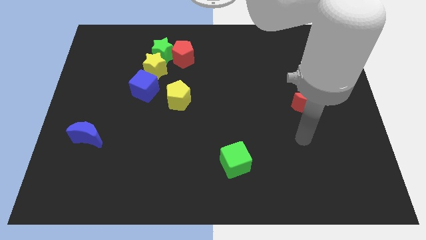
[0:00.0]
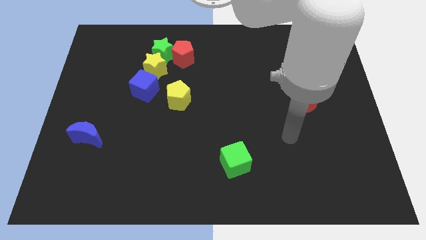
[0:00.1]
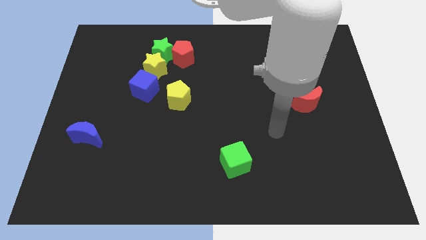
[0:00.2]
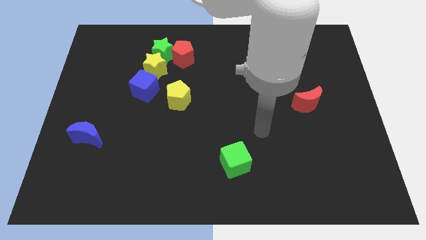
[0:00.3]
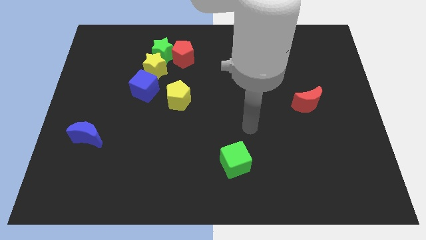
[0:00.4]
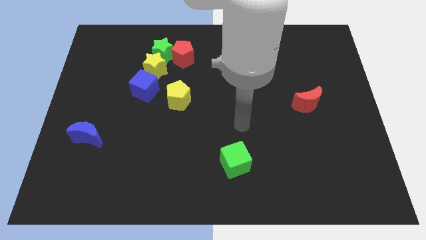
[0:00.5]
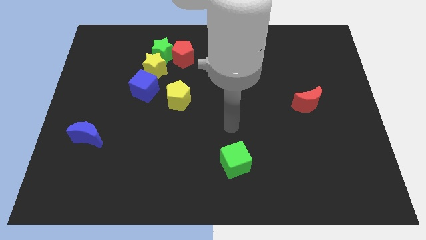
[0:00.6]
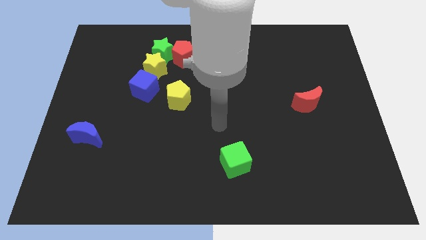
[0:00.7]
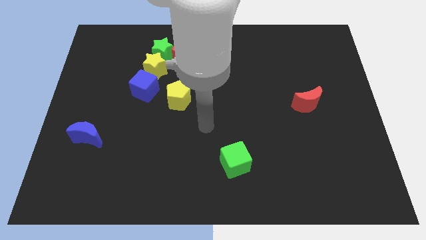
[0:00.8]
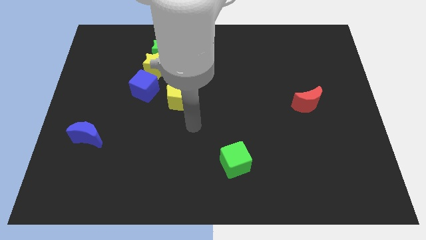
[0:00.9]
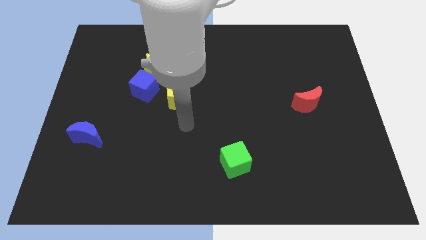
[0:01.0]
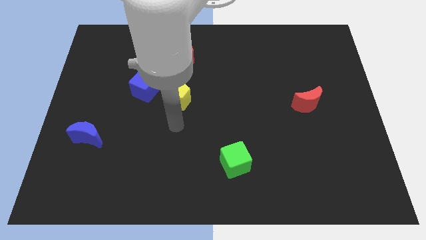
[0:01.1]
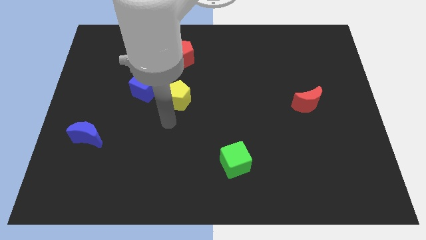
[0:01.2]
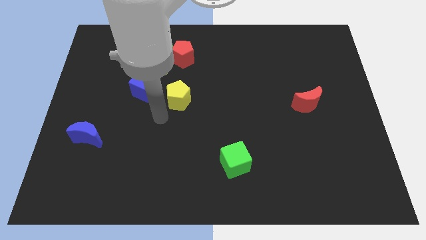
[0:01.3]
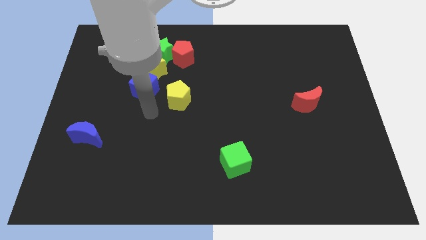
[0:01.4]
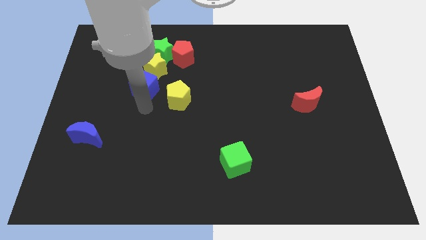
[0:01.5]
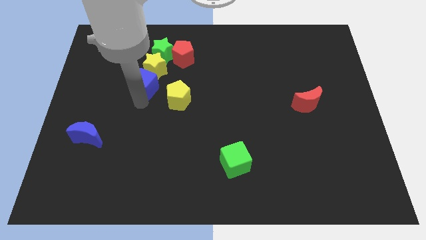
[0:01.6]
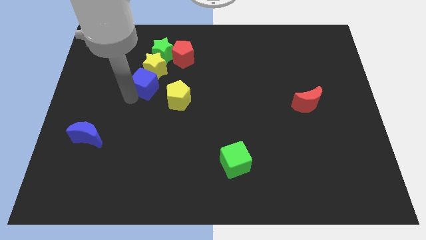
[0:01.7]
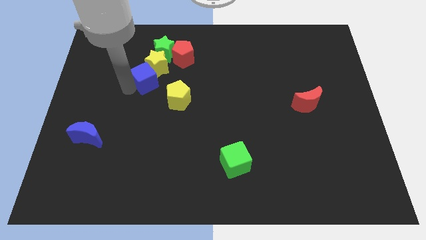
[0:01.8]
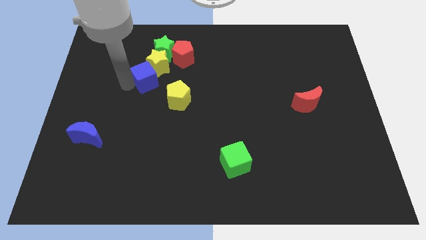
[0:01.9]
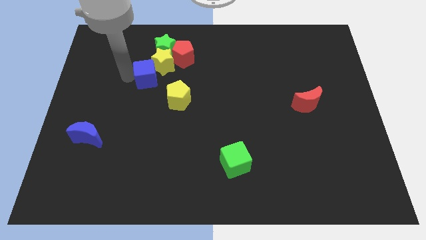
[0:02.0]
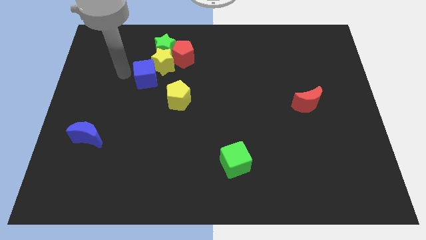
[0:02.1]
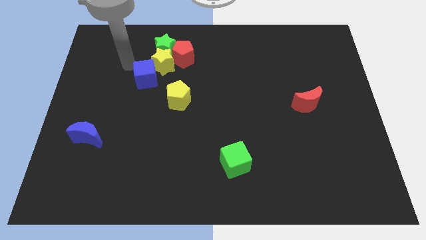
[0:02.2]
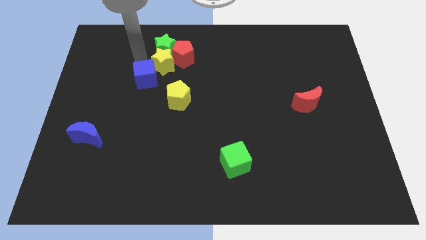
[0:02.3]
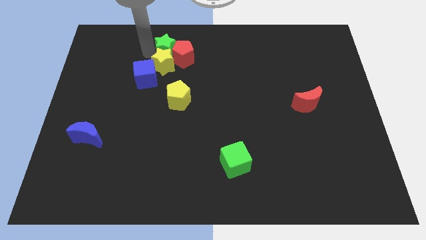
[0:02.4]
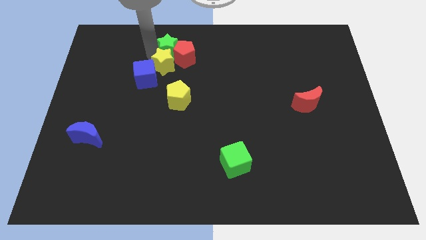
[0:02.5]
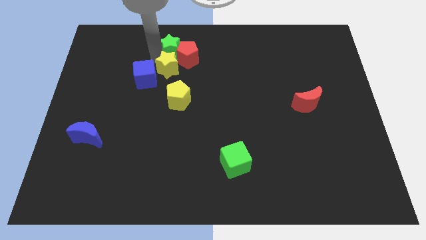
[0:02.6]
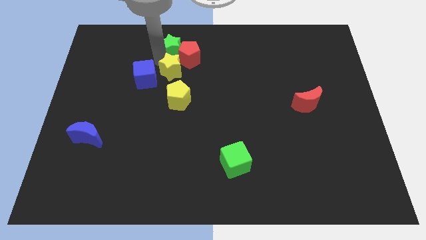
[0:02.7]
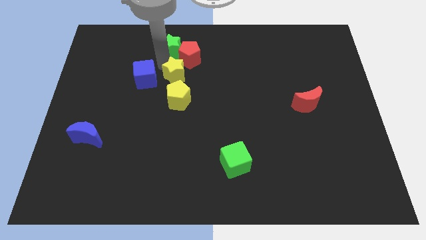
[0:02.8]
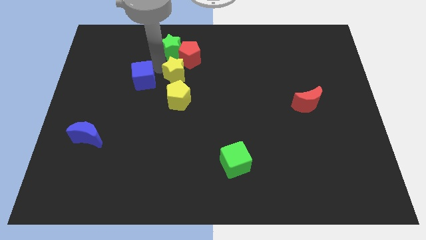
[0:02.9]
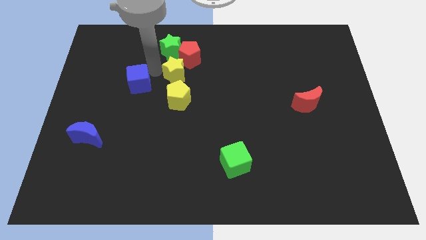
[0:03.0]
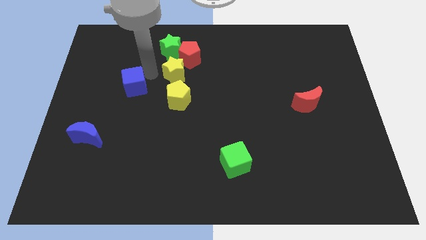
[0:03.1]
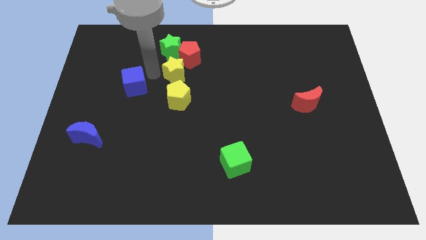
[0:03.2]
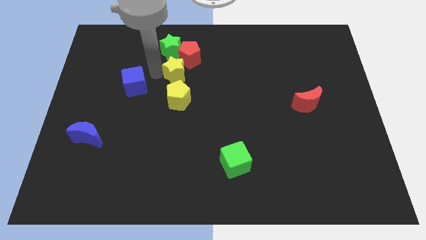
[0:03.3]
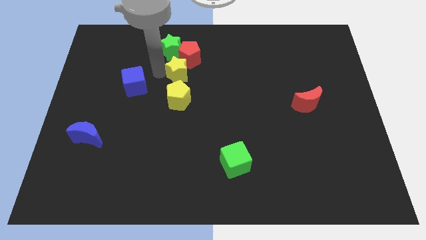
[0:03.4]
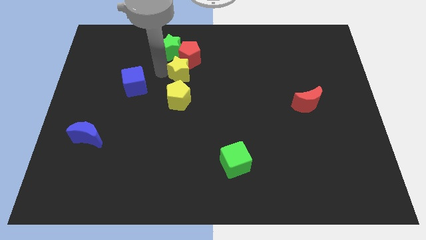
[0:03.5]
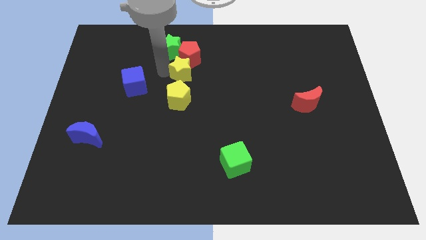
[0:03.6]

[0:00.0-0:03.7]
move the yellow star somewhat right

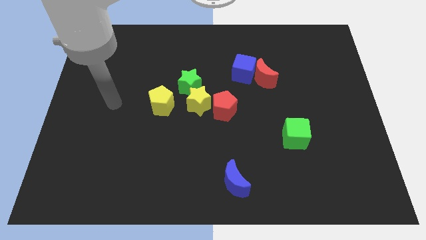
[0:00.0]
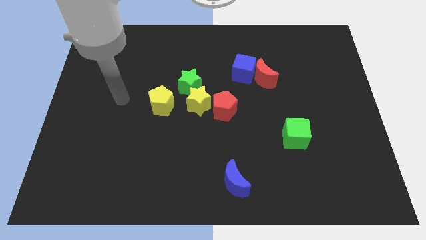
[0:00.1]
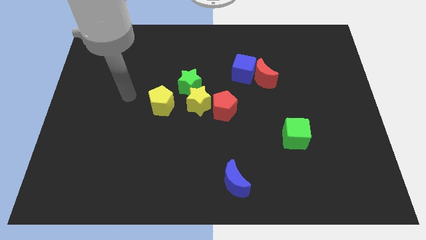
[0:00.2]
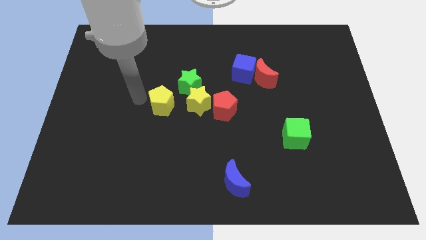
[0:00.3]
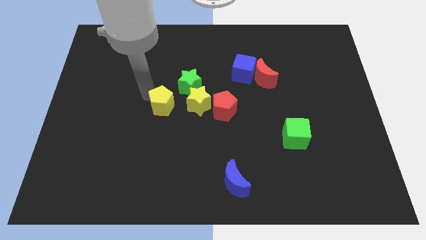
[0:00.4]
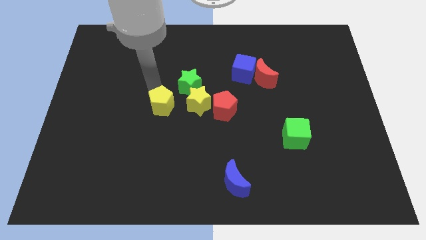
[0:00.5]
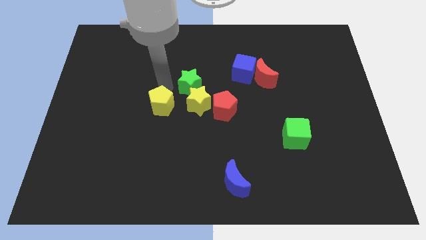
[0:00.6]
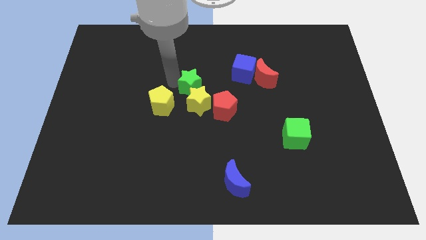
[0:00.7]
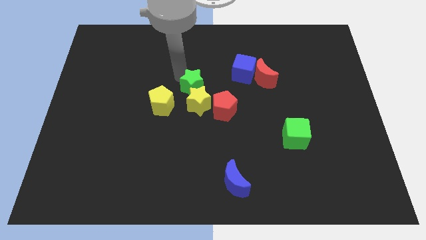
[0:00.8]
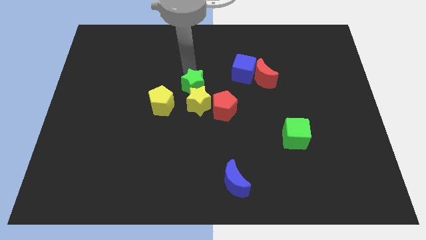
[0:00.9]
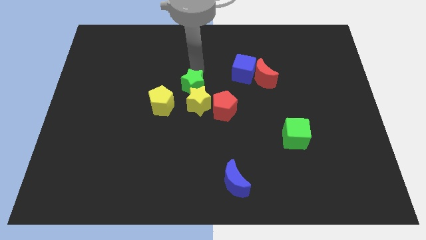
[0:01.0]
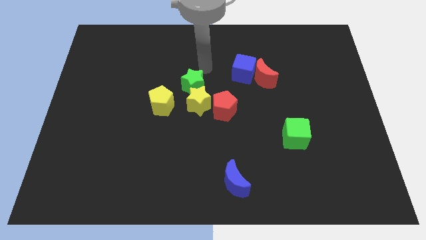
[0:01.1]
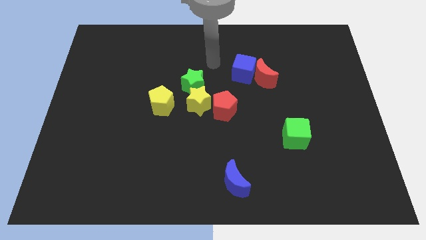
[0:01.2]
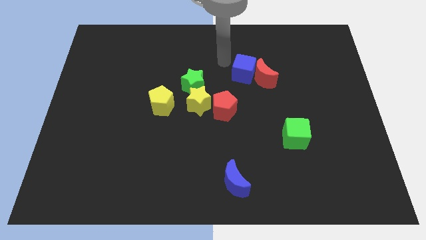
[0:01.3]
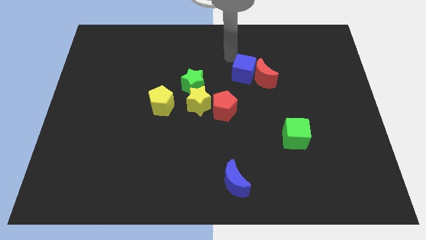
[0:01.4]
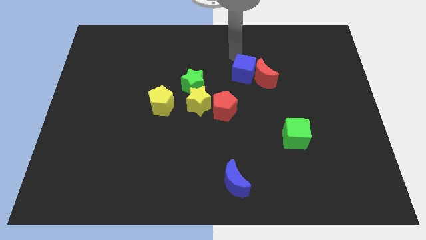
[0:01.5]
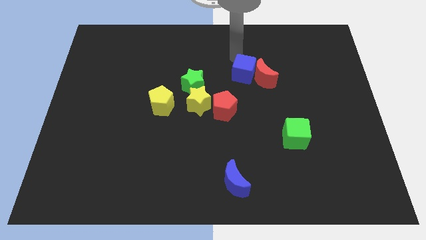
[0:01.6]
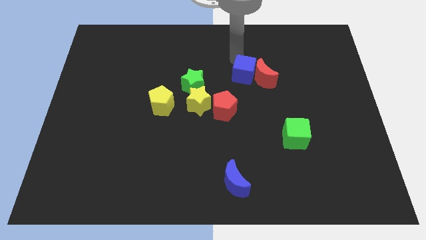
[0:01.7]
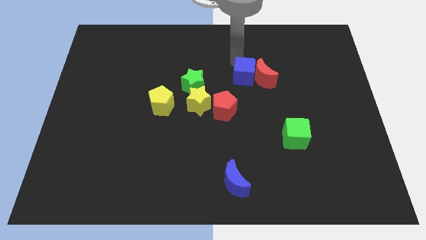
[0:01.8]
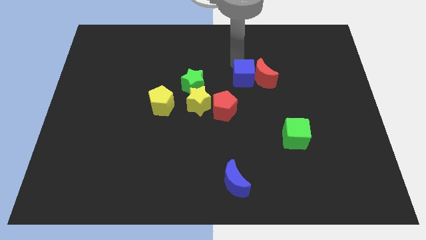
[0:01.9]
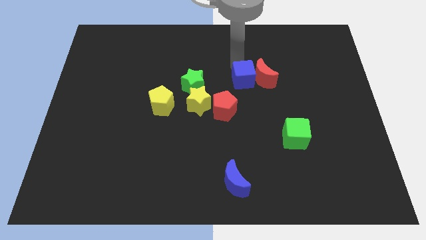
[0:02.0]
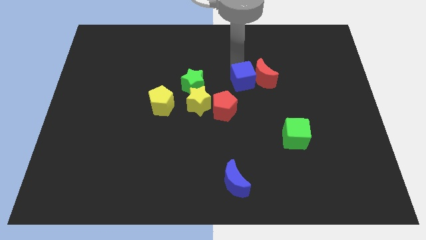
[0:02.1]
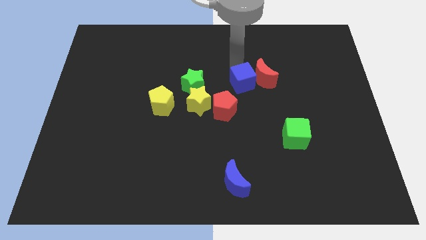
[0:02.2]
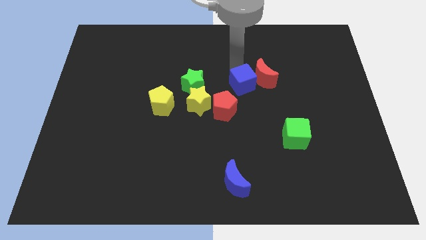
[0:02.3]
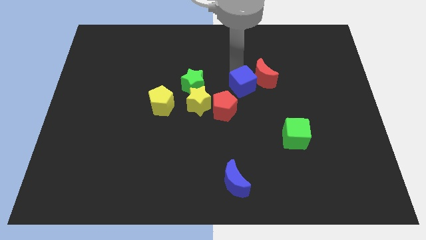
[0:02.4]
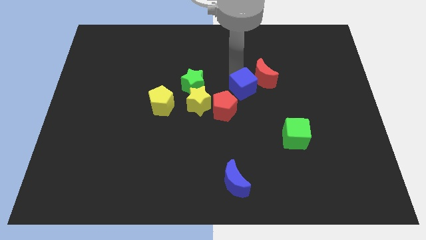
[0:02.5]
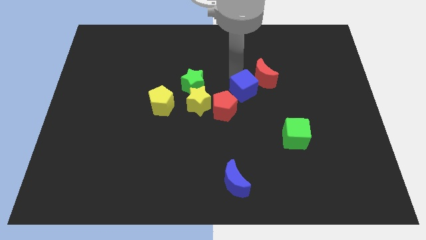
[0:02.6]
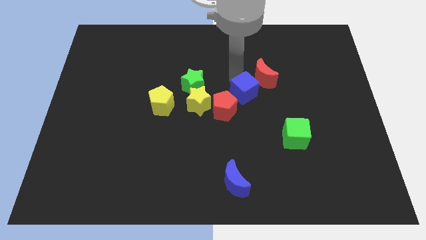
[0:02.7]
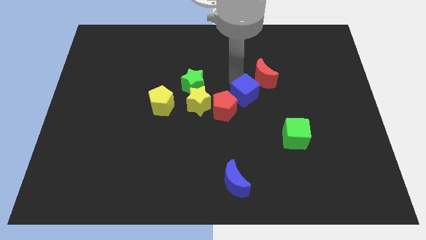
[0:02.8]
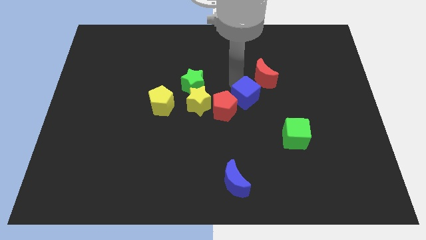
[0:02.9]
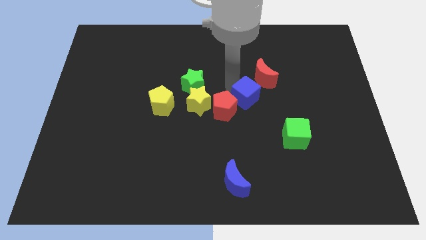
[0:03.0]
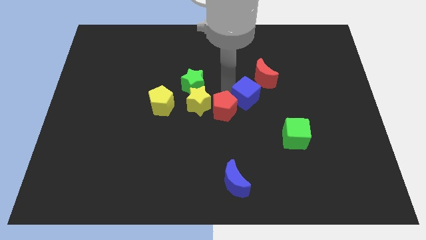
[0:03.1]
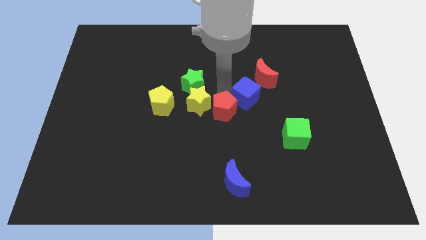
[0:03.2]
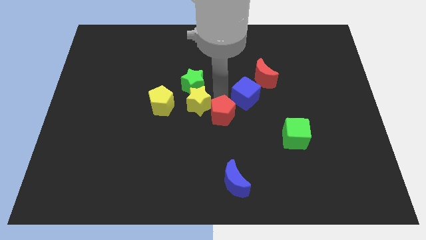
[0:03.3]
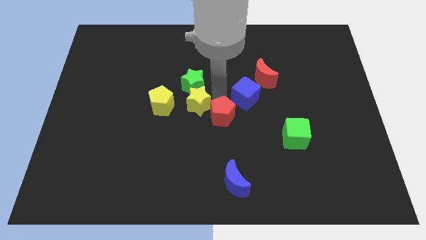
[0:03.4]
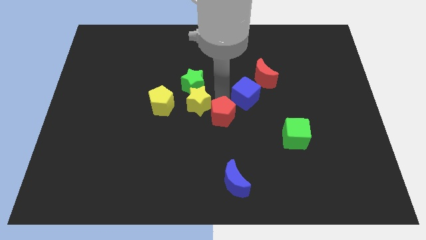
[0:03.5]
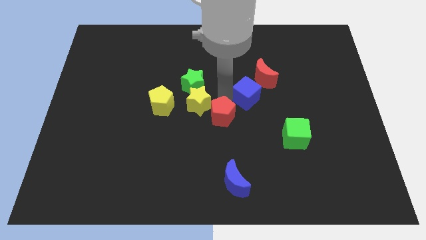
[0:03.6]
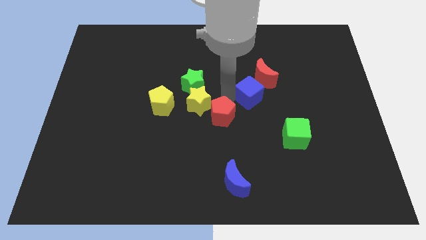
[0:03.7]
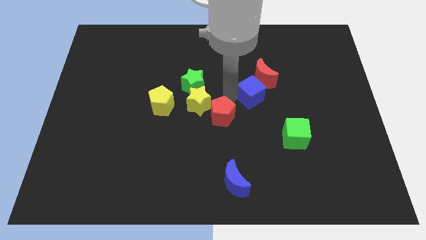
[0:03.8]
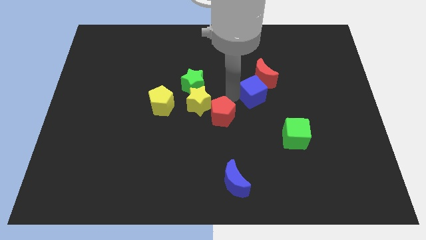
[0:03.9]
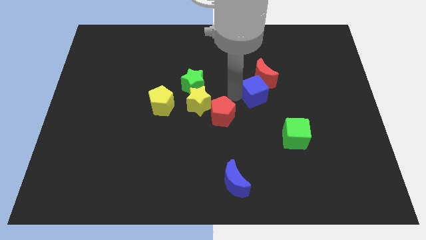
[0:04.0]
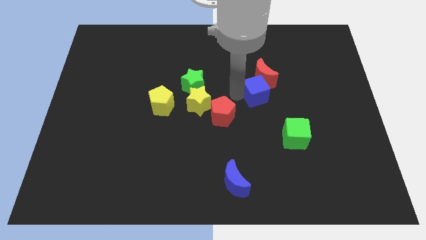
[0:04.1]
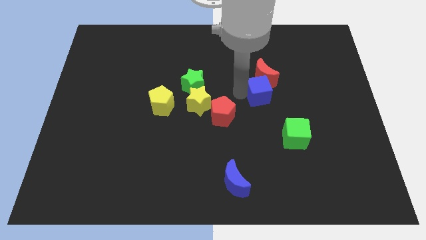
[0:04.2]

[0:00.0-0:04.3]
slide the blue cube a little down and to the right
